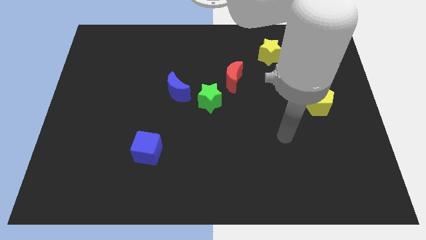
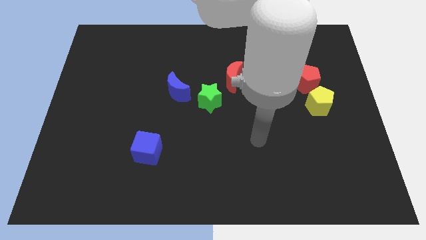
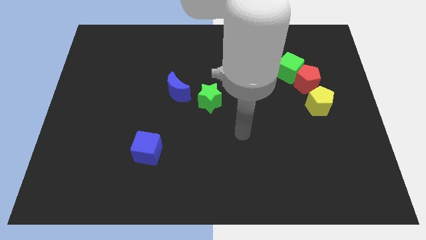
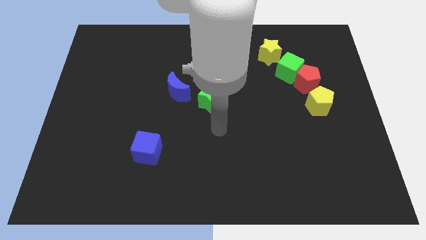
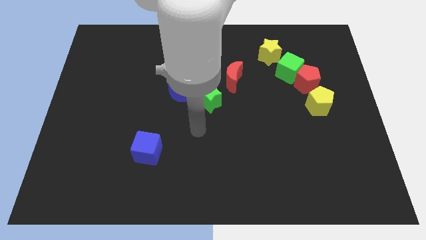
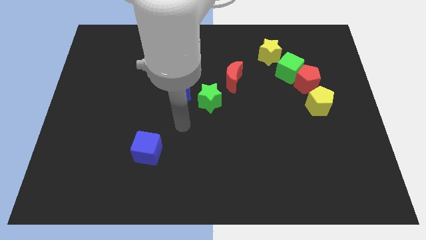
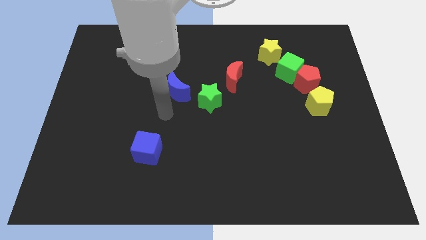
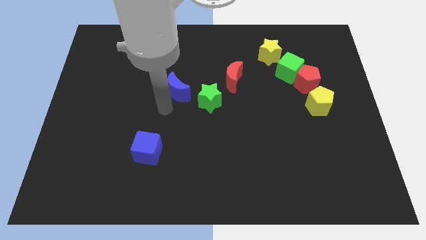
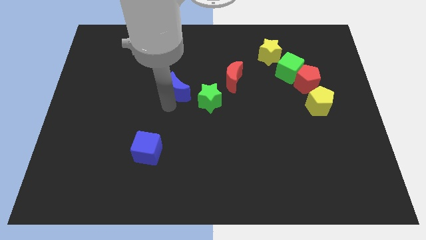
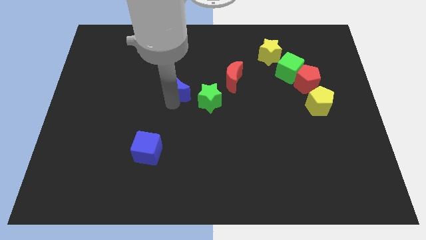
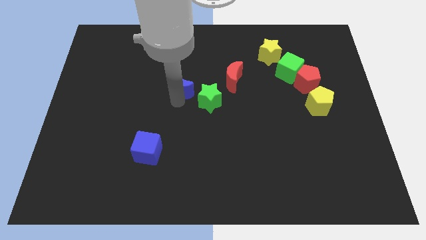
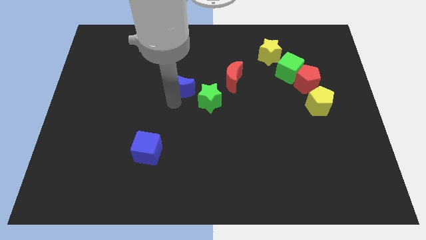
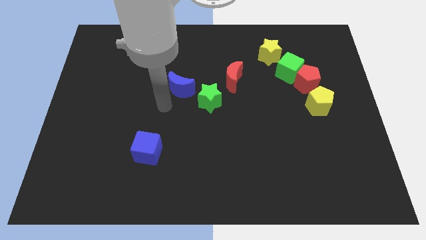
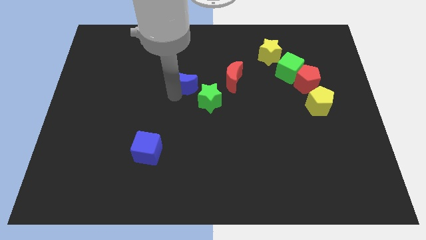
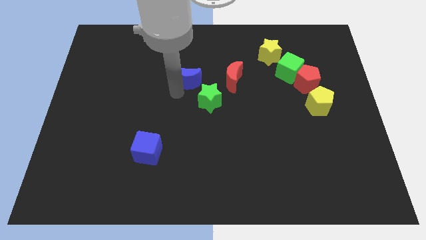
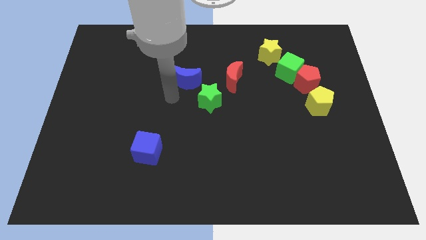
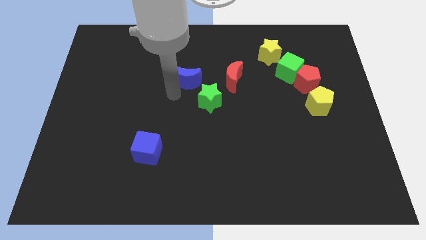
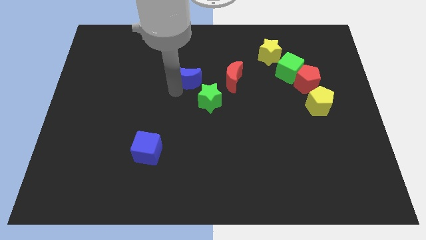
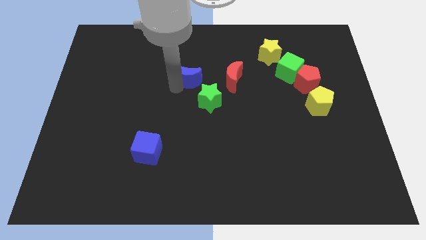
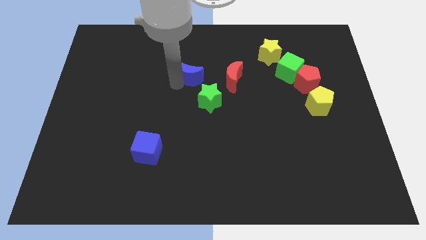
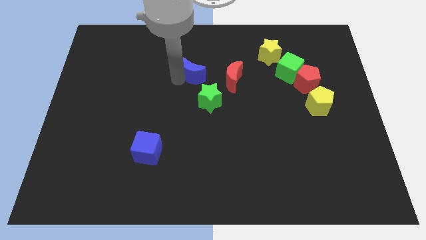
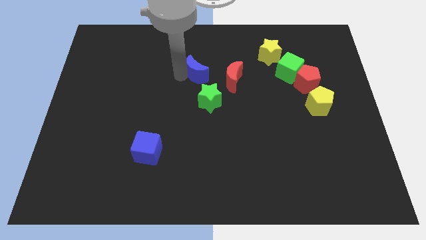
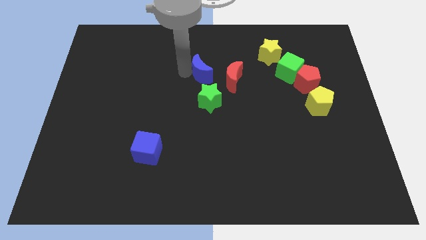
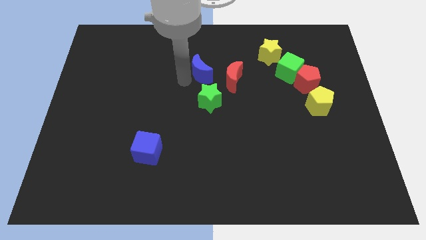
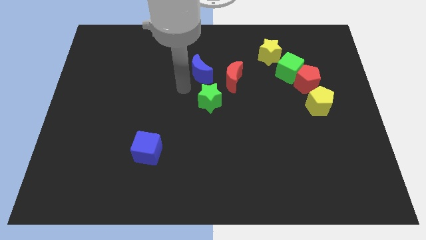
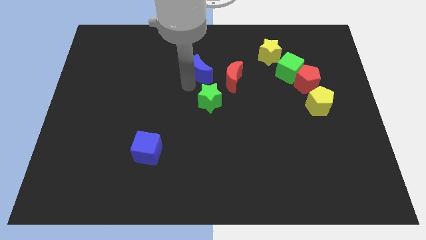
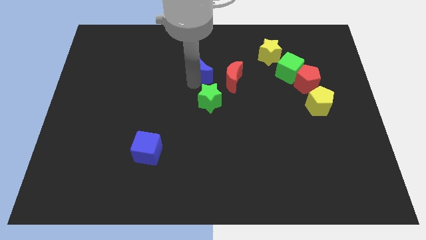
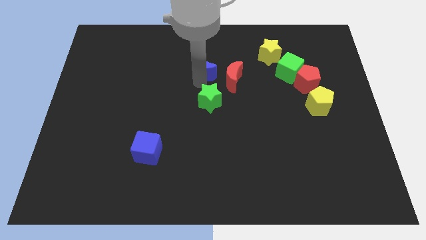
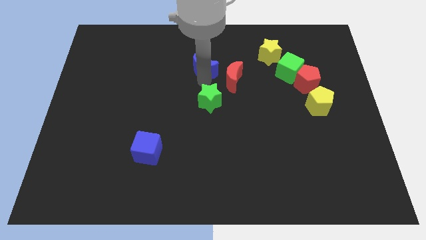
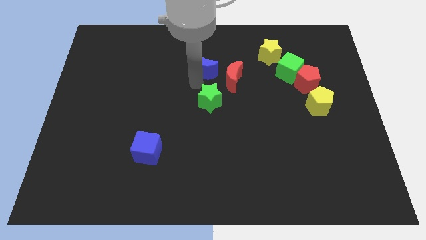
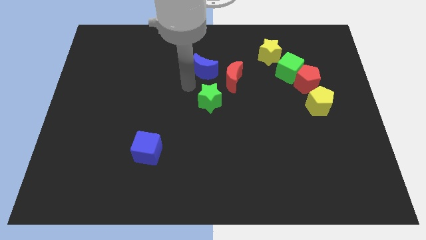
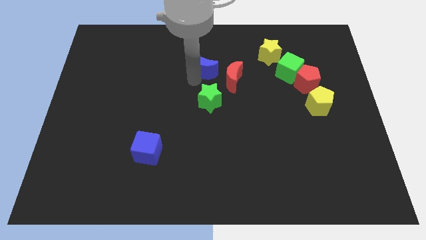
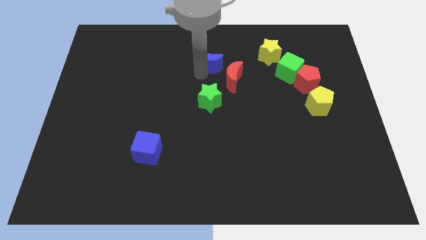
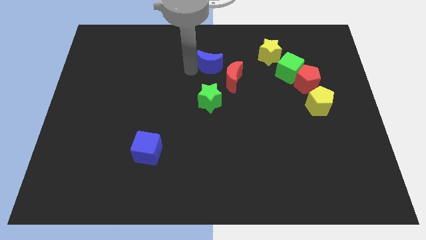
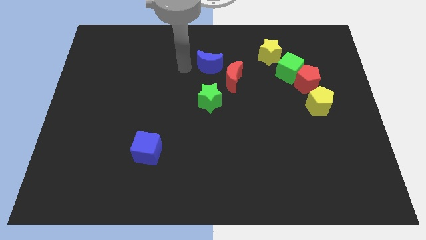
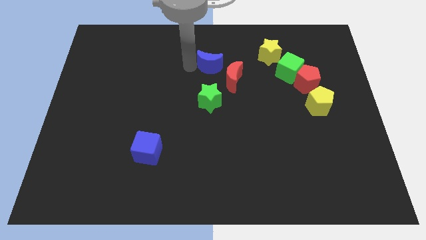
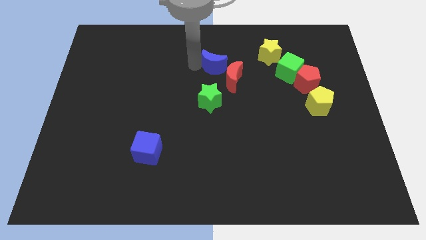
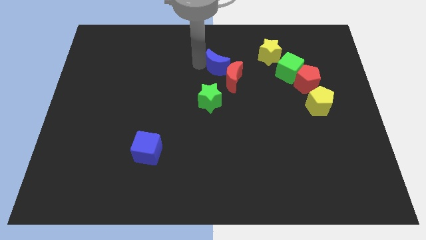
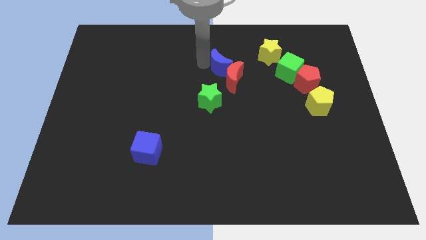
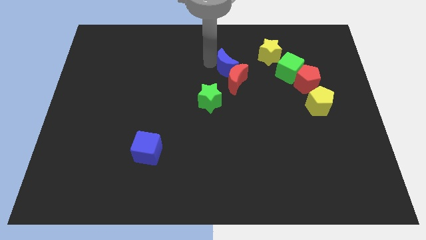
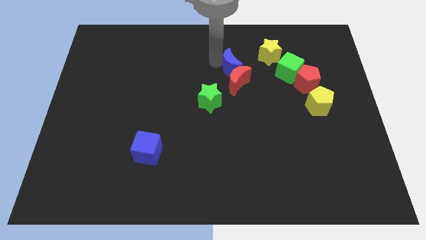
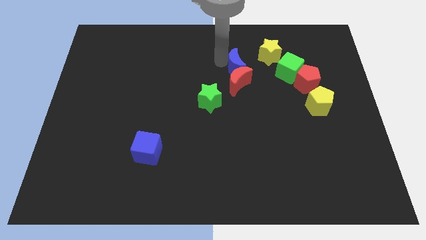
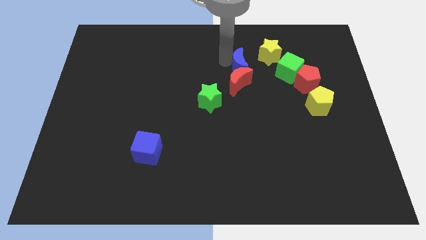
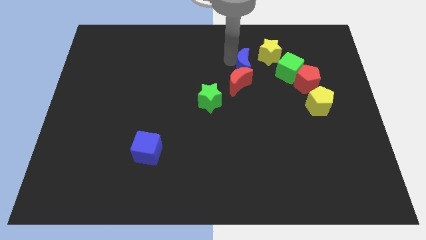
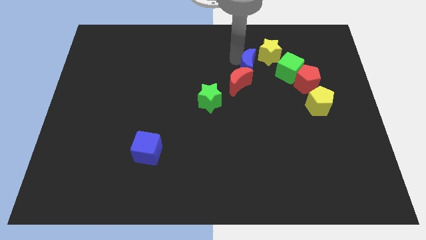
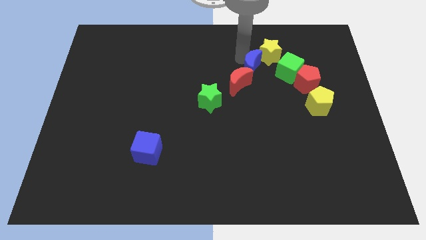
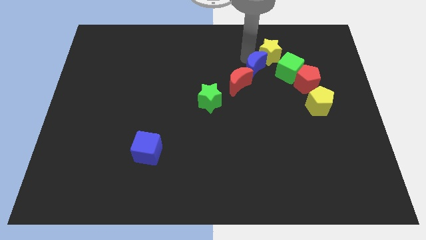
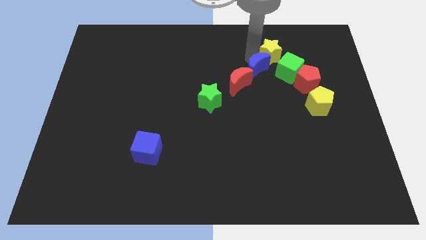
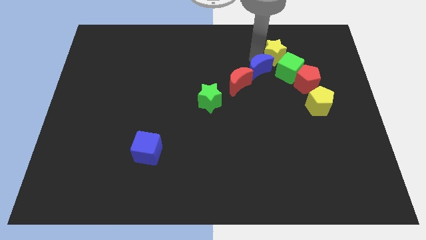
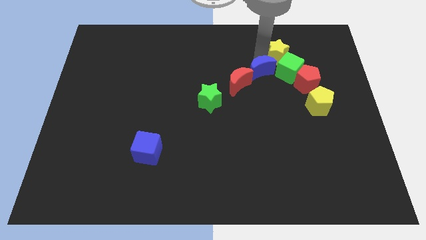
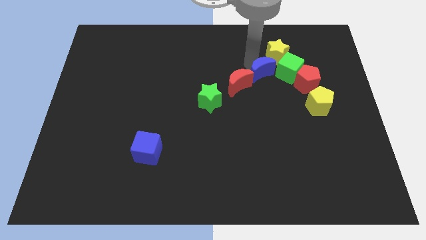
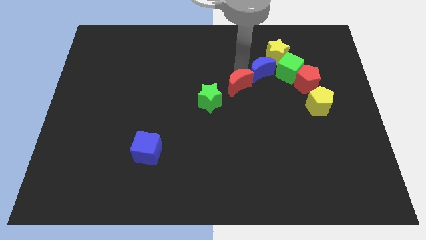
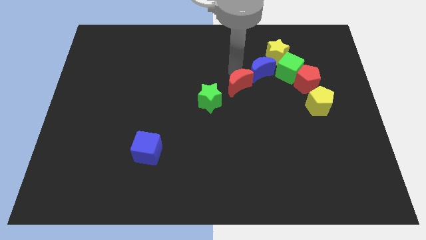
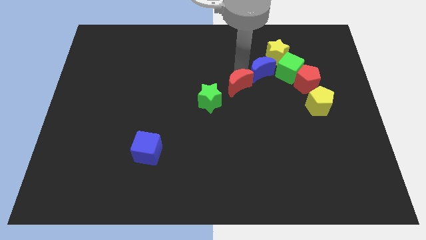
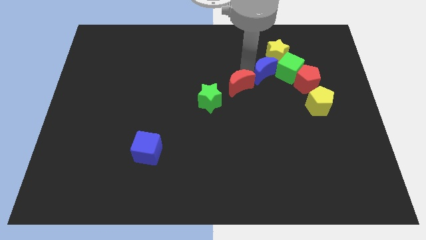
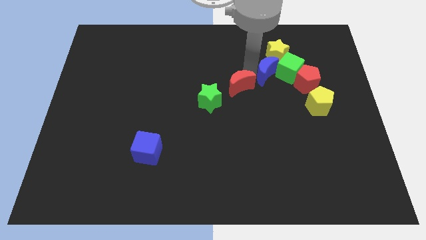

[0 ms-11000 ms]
slide the blue moon close to the green cube

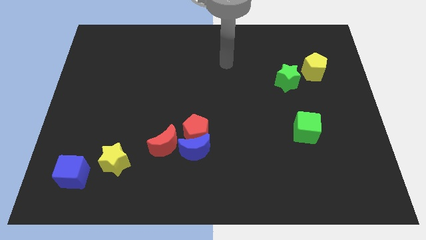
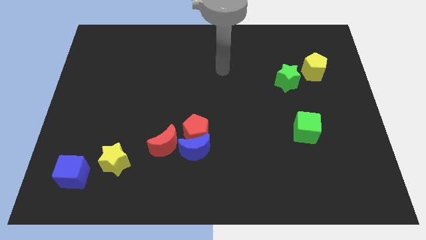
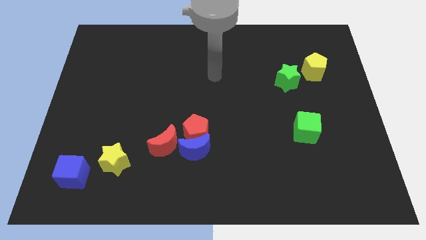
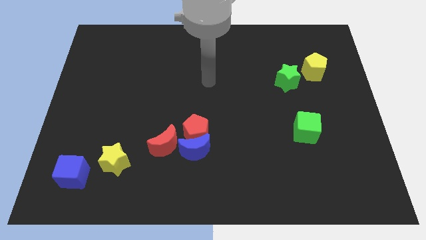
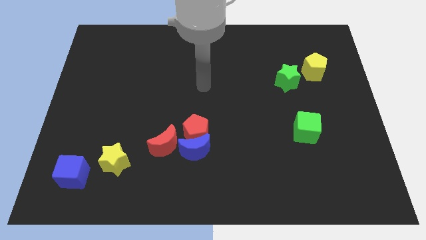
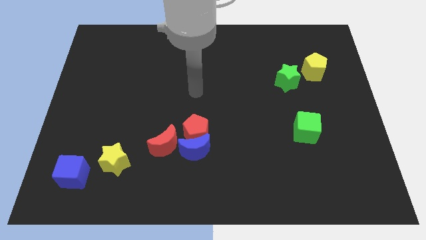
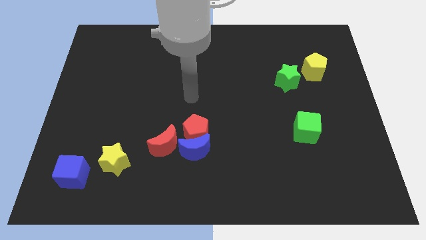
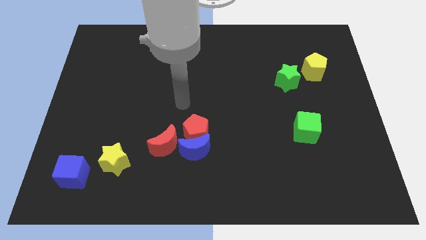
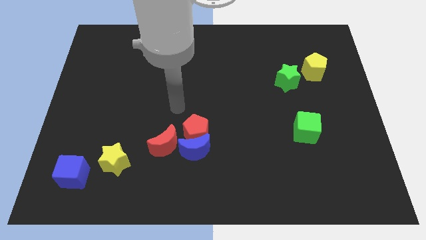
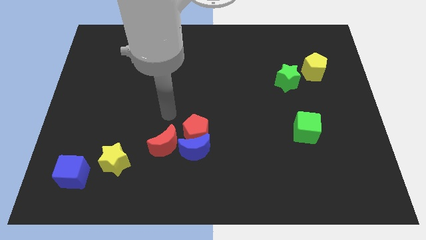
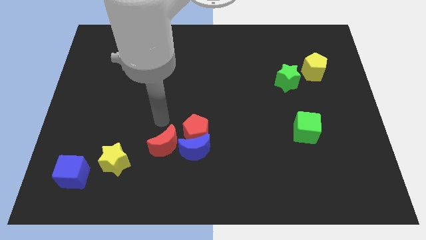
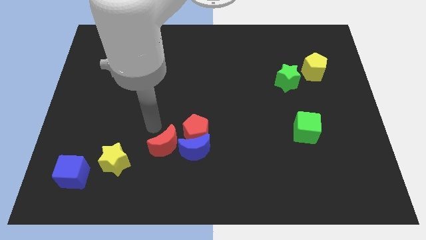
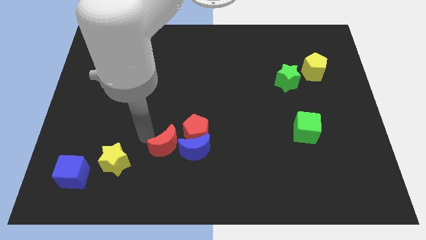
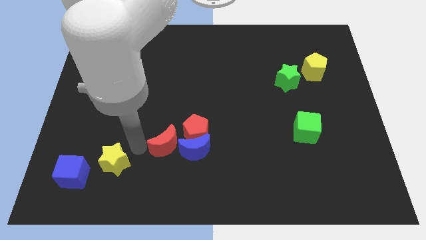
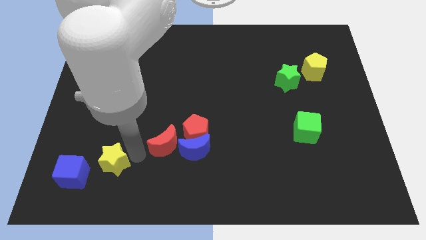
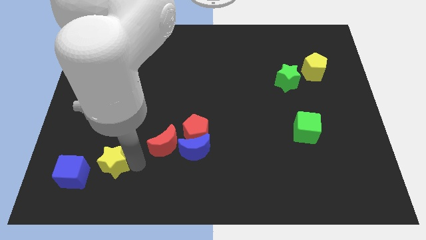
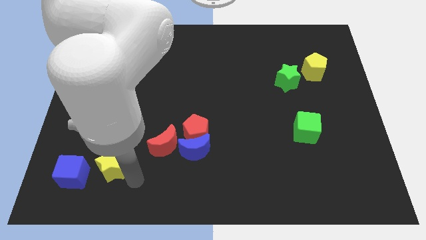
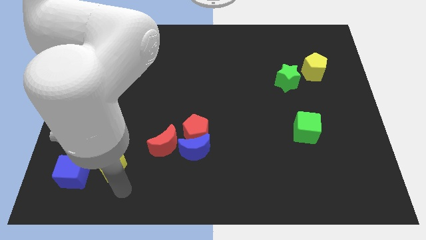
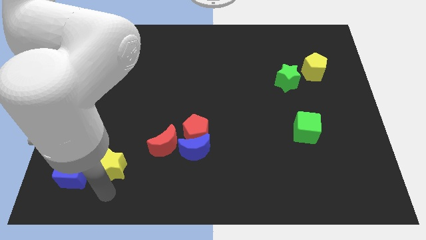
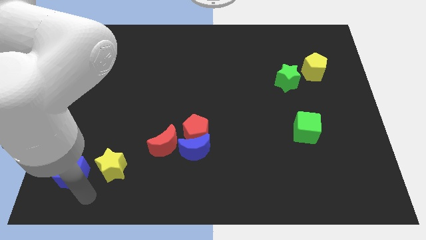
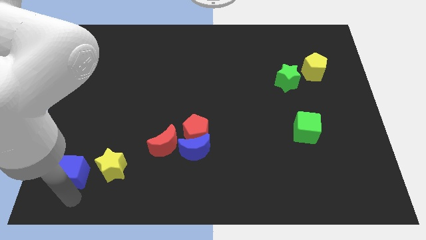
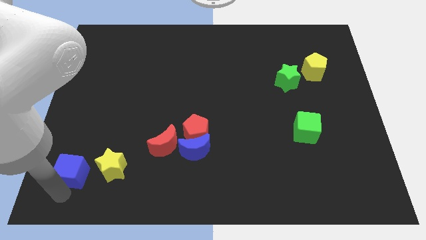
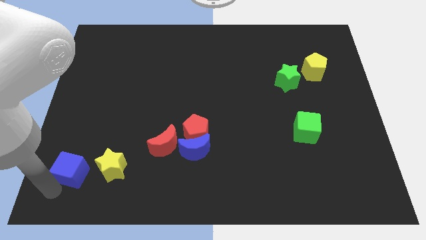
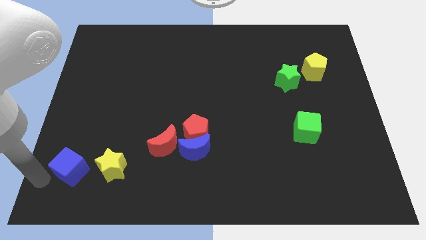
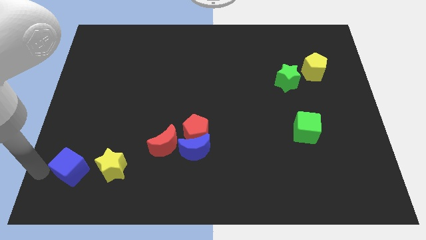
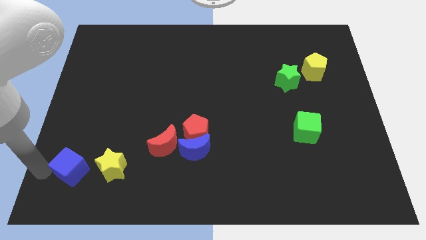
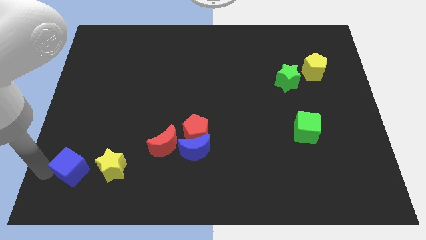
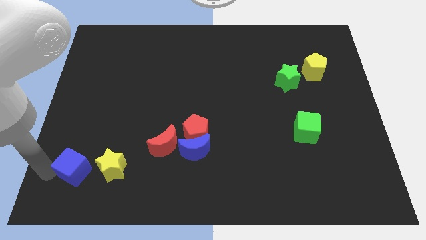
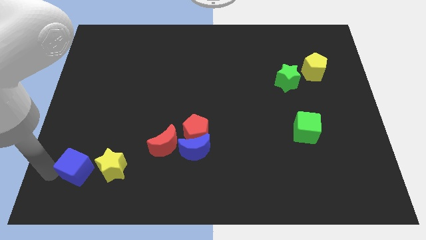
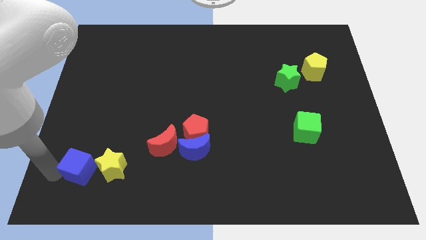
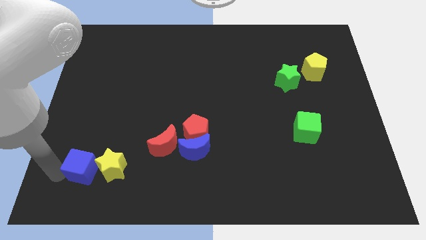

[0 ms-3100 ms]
push the blue cube next to the yellow star
